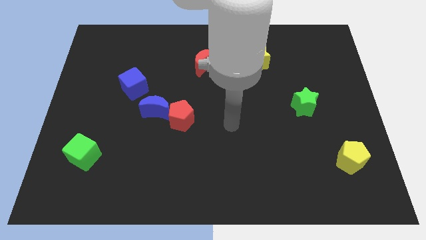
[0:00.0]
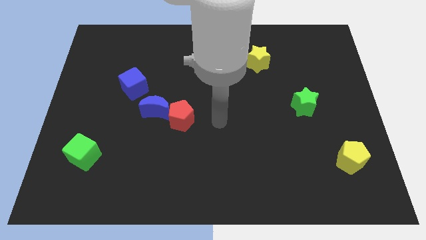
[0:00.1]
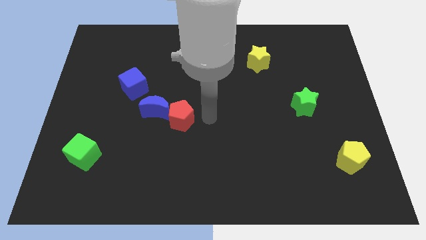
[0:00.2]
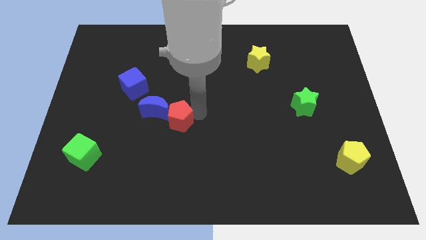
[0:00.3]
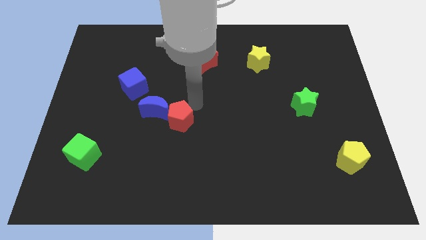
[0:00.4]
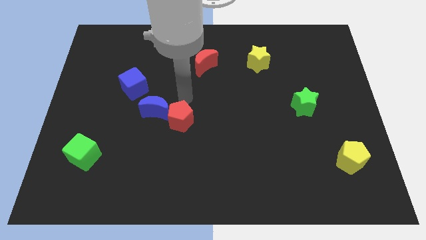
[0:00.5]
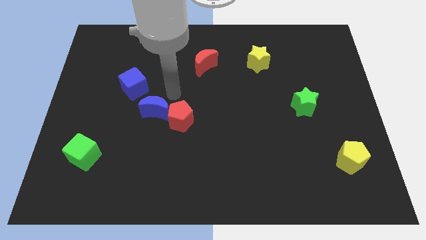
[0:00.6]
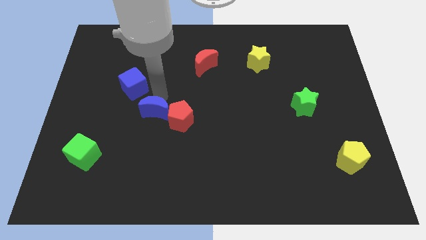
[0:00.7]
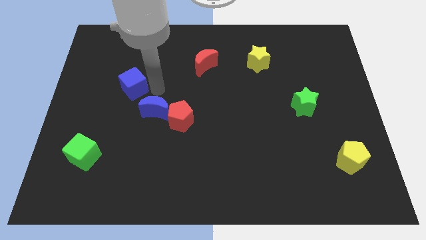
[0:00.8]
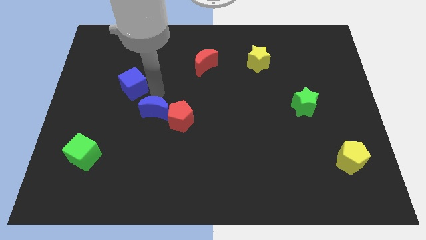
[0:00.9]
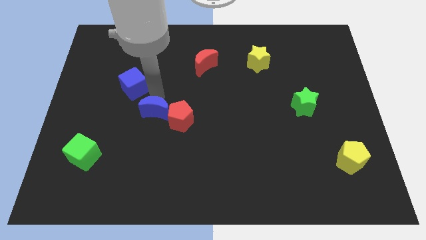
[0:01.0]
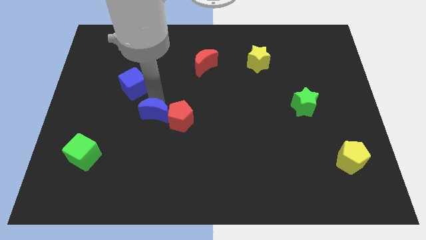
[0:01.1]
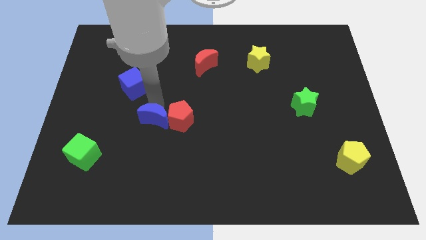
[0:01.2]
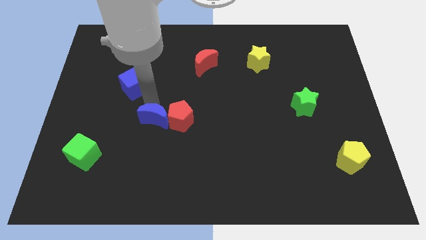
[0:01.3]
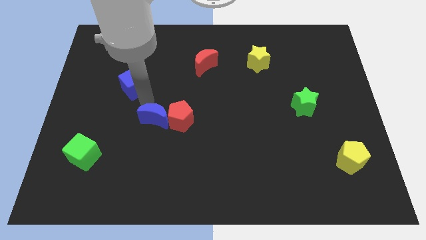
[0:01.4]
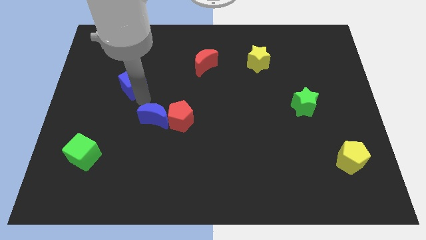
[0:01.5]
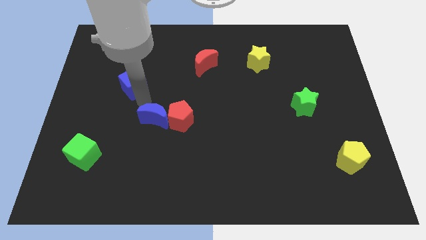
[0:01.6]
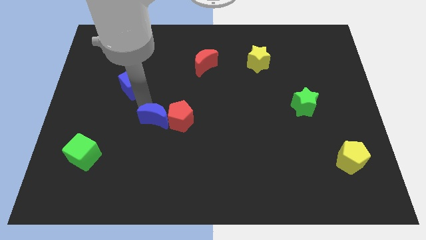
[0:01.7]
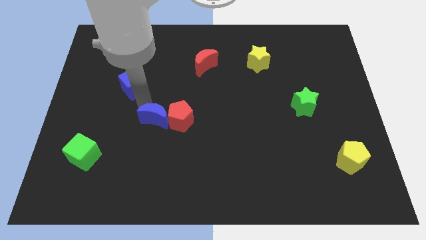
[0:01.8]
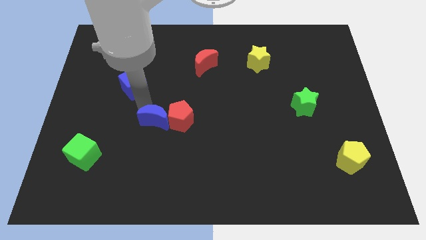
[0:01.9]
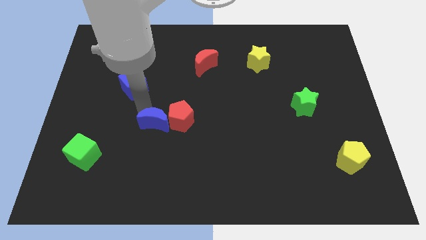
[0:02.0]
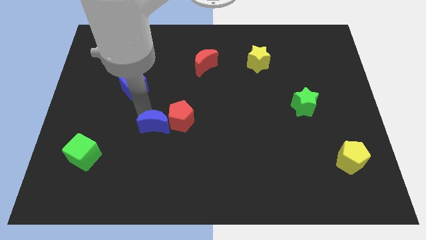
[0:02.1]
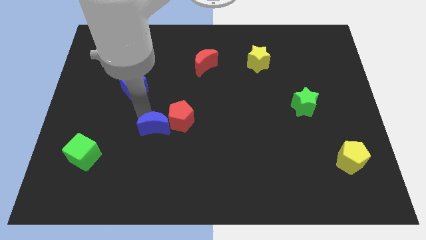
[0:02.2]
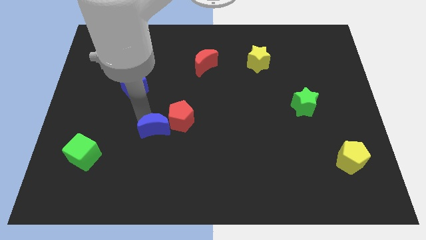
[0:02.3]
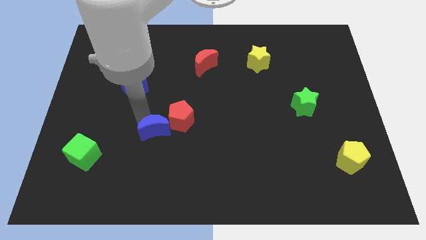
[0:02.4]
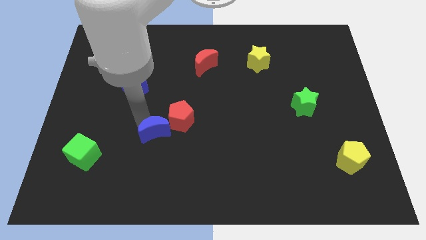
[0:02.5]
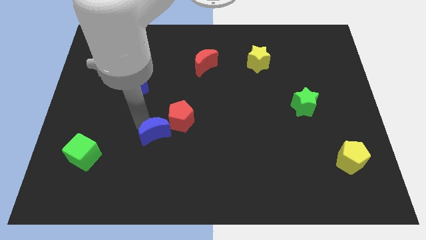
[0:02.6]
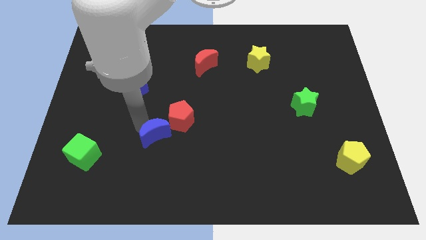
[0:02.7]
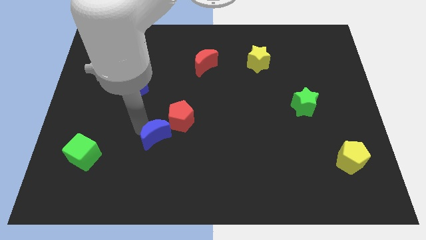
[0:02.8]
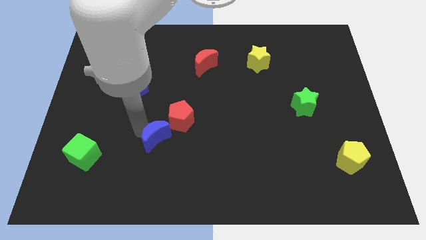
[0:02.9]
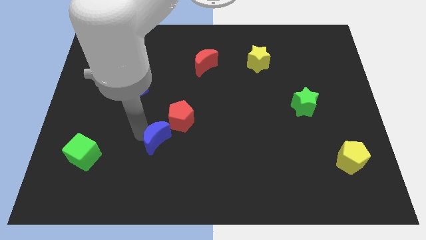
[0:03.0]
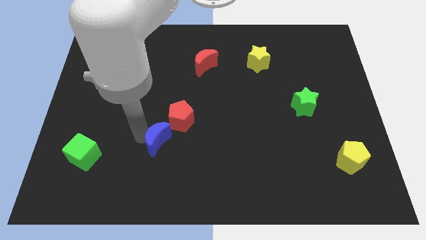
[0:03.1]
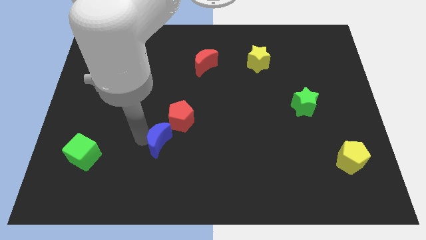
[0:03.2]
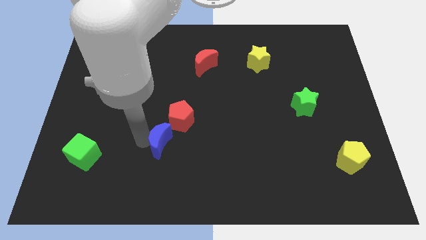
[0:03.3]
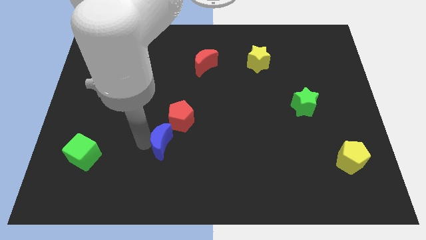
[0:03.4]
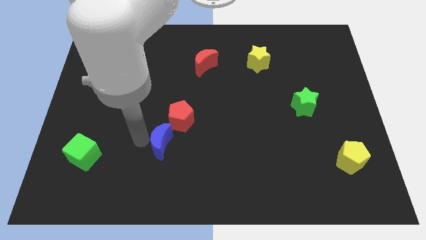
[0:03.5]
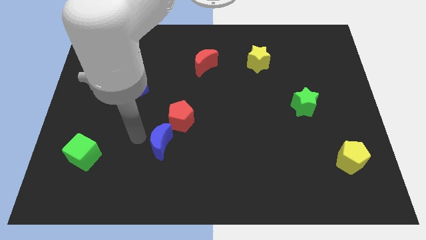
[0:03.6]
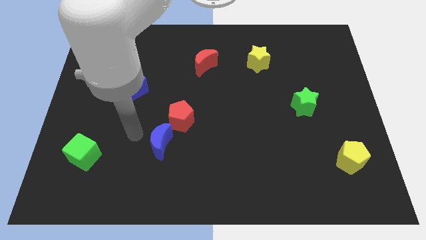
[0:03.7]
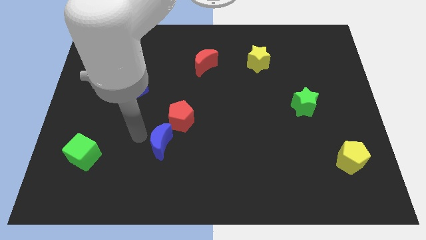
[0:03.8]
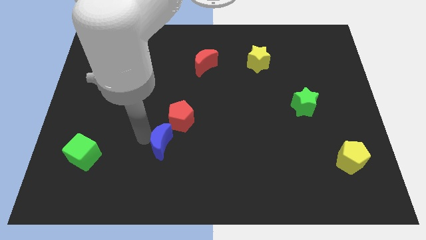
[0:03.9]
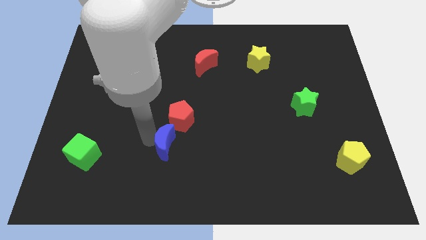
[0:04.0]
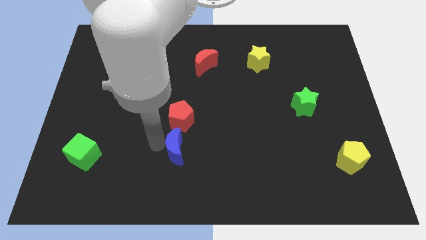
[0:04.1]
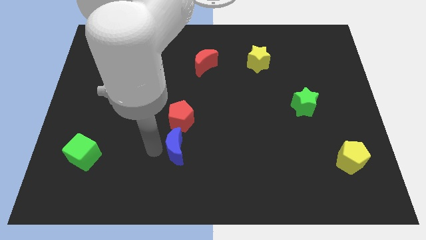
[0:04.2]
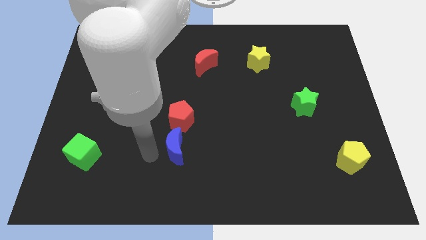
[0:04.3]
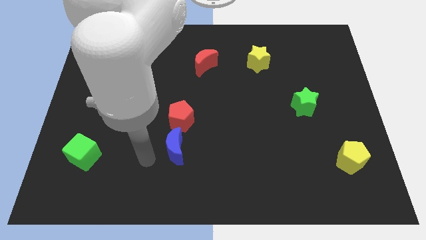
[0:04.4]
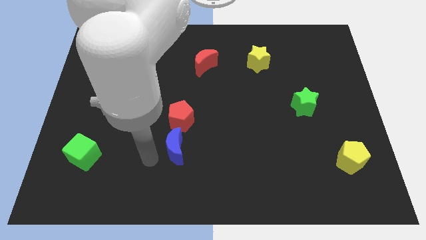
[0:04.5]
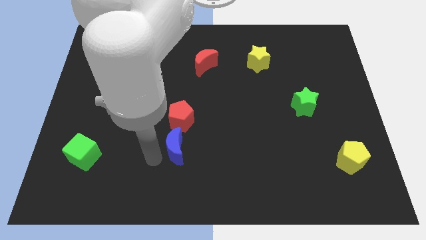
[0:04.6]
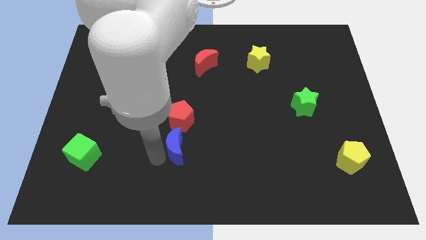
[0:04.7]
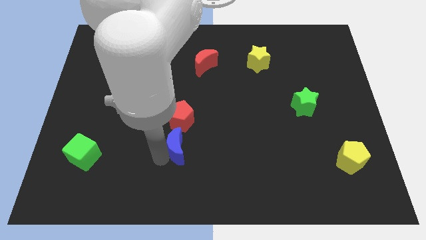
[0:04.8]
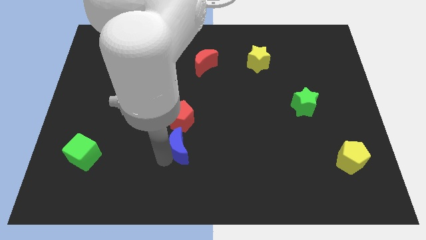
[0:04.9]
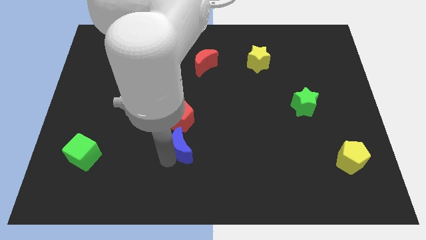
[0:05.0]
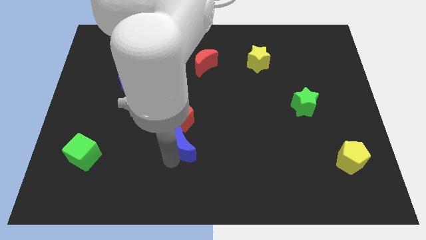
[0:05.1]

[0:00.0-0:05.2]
move the blue moon to the bottom right of the red pentagon
